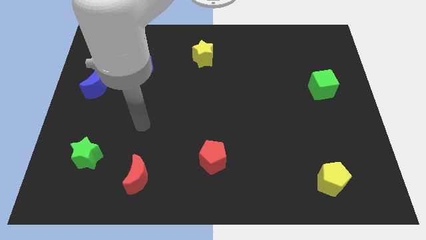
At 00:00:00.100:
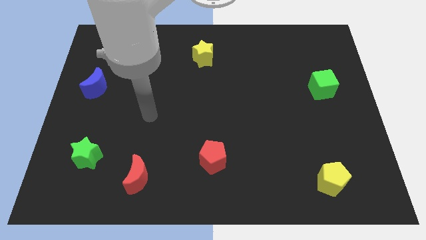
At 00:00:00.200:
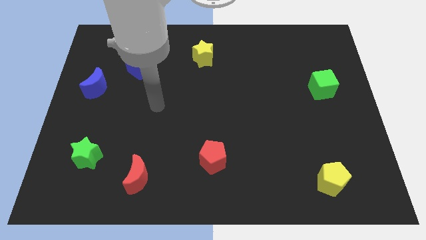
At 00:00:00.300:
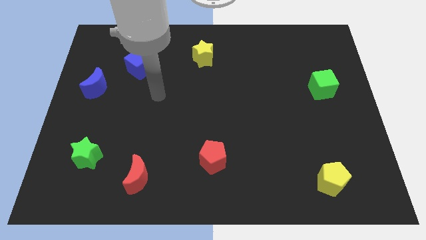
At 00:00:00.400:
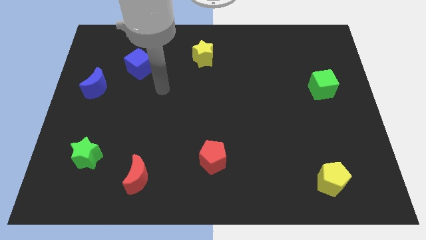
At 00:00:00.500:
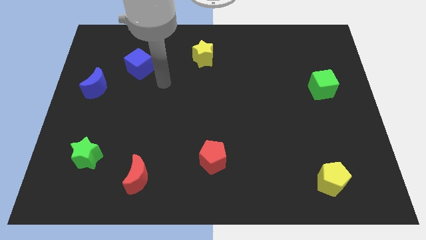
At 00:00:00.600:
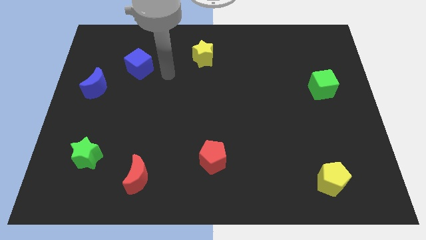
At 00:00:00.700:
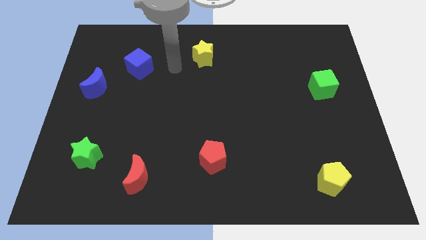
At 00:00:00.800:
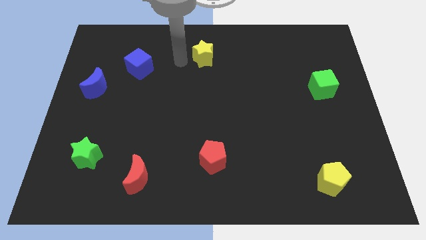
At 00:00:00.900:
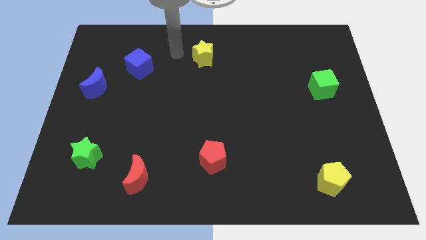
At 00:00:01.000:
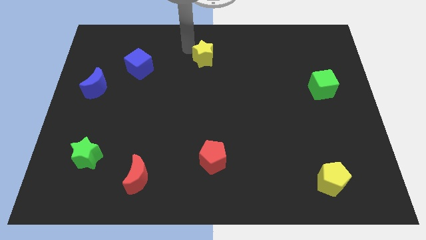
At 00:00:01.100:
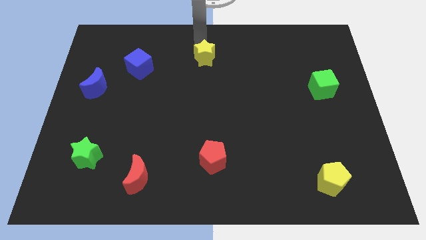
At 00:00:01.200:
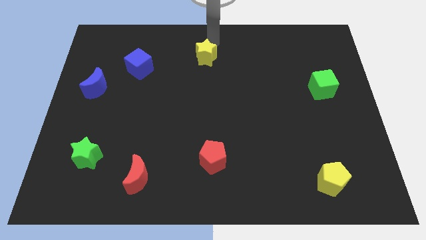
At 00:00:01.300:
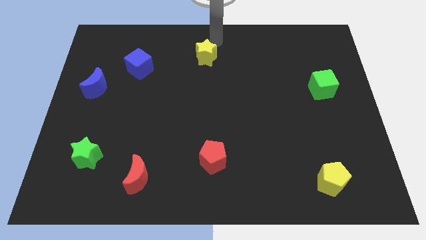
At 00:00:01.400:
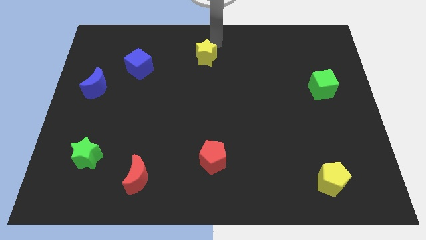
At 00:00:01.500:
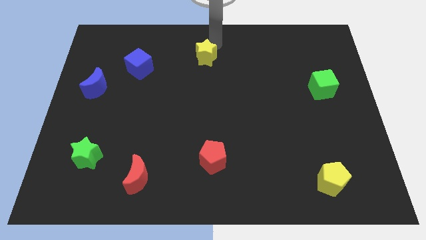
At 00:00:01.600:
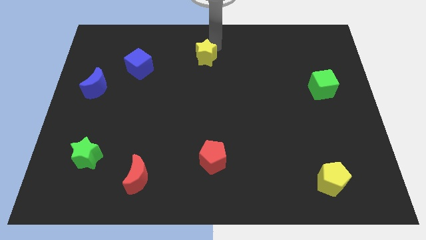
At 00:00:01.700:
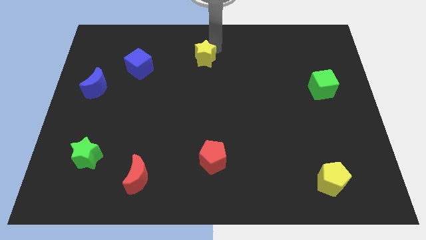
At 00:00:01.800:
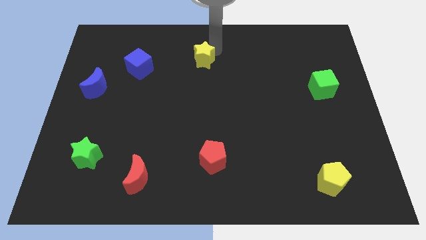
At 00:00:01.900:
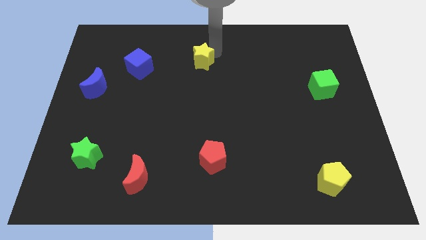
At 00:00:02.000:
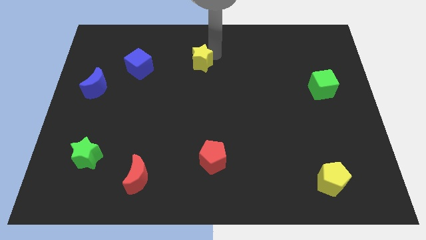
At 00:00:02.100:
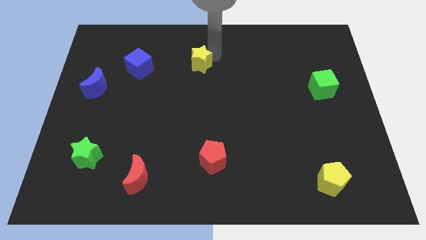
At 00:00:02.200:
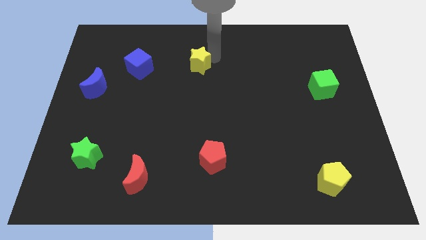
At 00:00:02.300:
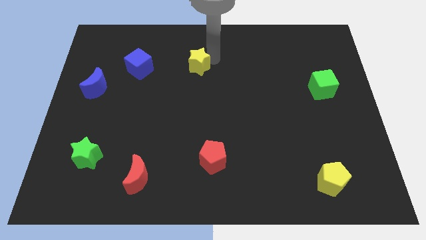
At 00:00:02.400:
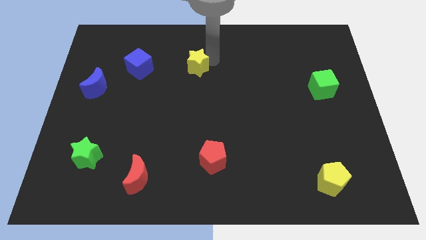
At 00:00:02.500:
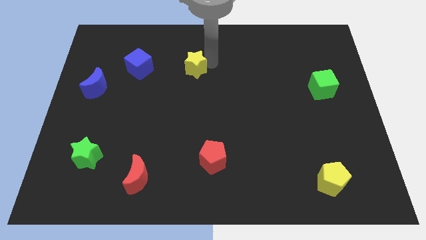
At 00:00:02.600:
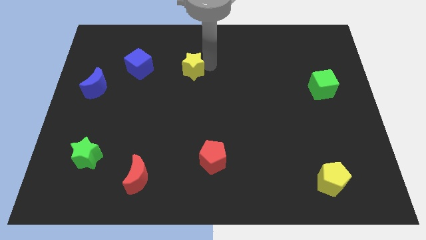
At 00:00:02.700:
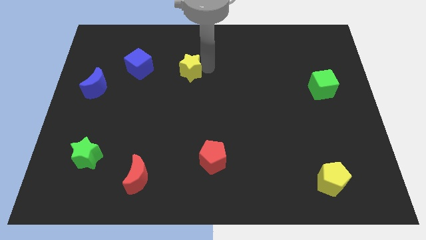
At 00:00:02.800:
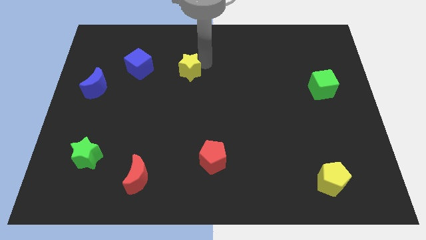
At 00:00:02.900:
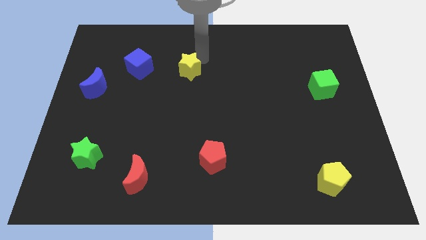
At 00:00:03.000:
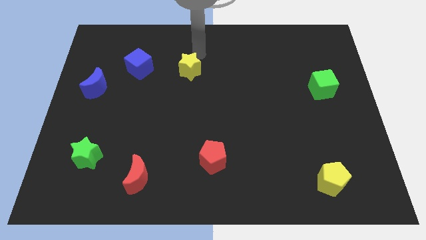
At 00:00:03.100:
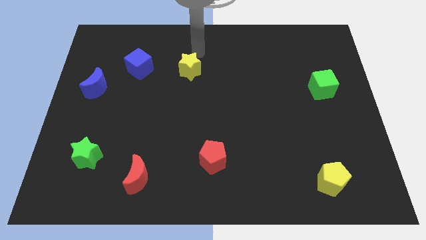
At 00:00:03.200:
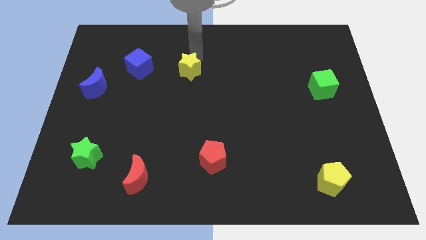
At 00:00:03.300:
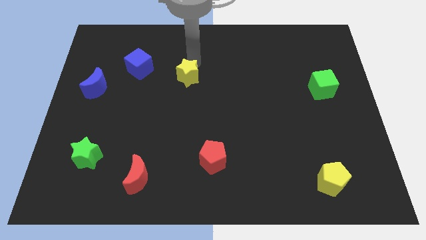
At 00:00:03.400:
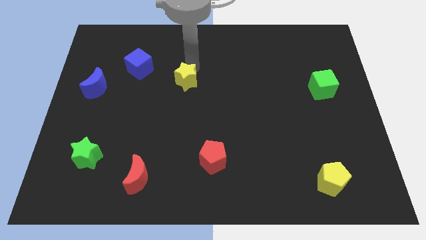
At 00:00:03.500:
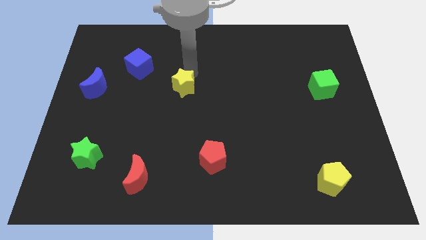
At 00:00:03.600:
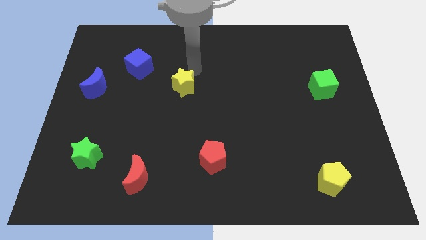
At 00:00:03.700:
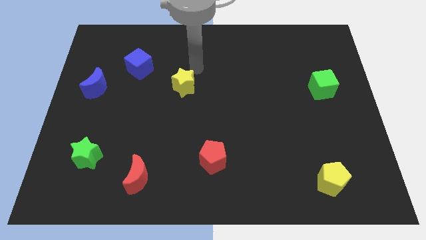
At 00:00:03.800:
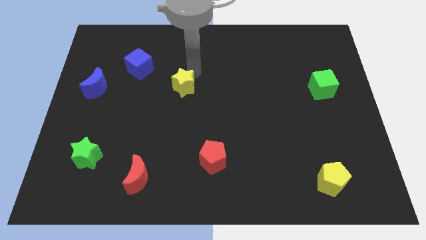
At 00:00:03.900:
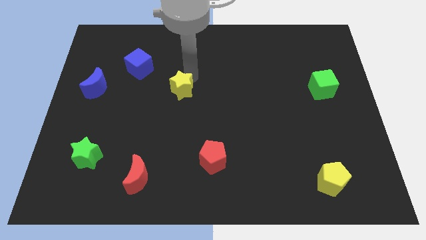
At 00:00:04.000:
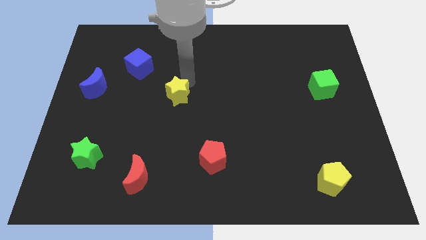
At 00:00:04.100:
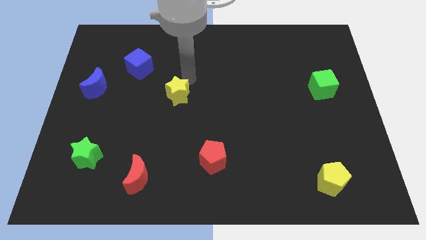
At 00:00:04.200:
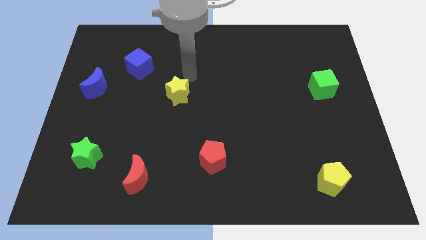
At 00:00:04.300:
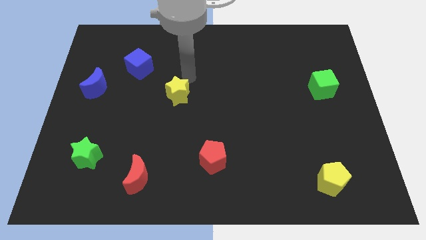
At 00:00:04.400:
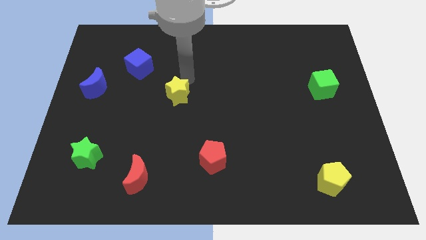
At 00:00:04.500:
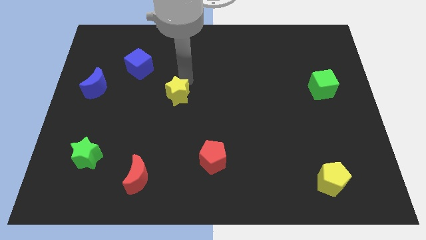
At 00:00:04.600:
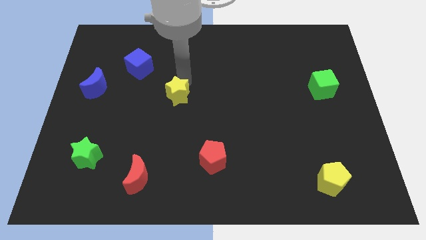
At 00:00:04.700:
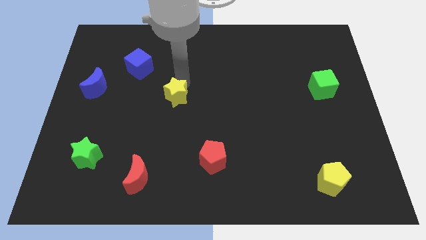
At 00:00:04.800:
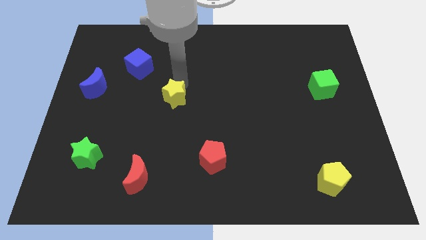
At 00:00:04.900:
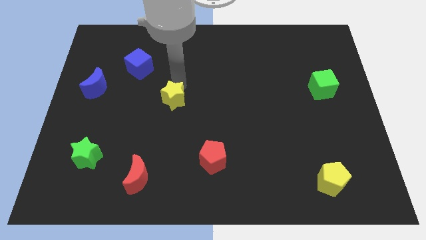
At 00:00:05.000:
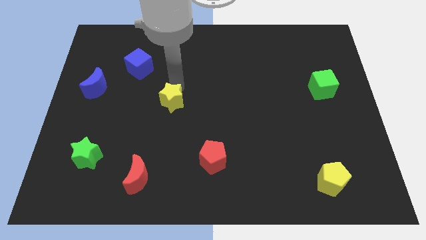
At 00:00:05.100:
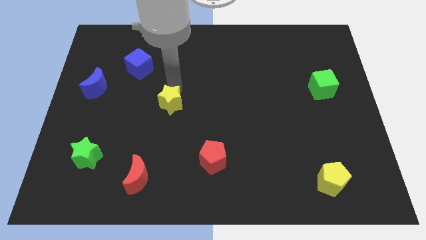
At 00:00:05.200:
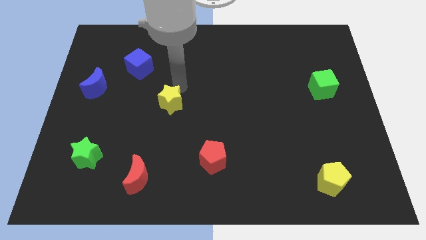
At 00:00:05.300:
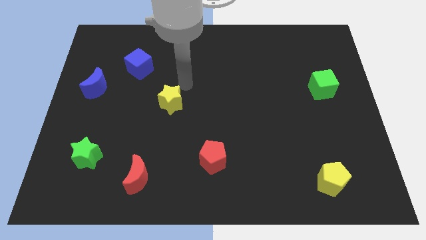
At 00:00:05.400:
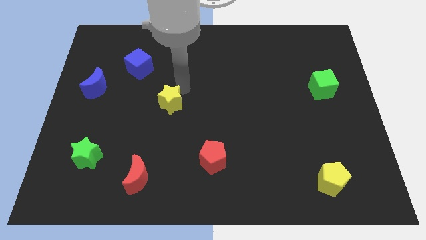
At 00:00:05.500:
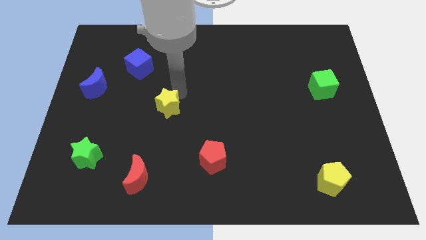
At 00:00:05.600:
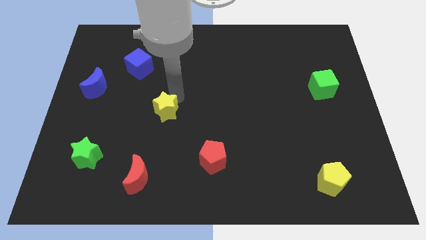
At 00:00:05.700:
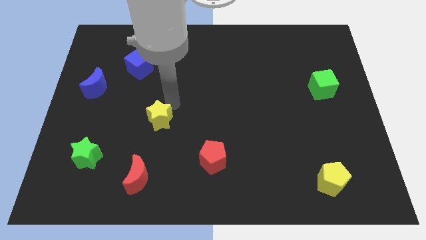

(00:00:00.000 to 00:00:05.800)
slide the yellow star to the top side of the red moon

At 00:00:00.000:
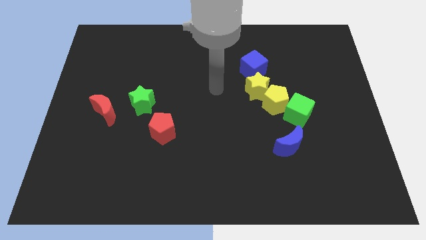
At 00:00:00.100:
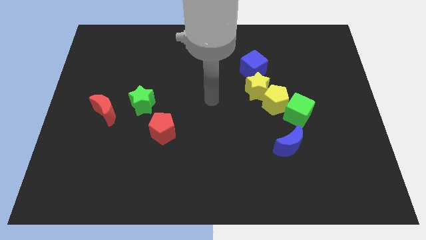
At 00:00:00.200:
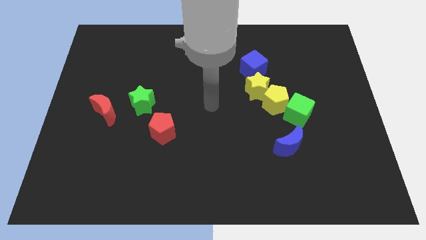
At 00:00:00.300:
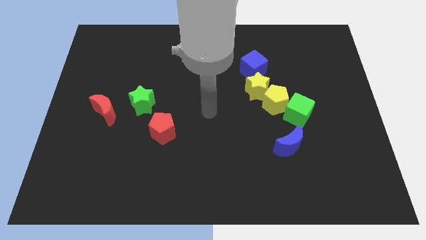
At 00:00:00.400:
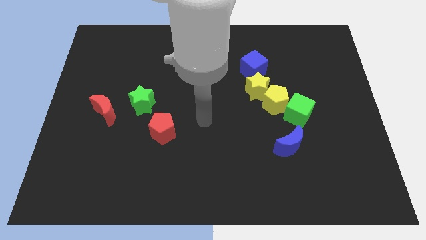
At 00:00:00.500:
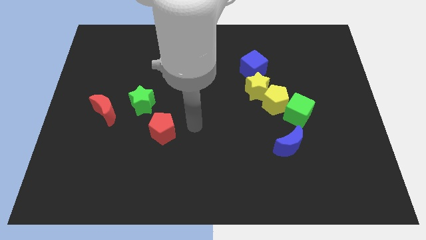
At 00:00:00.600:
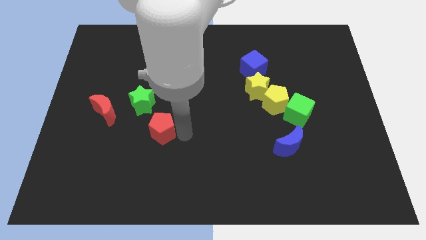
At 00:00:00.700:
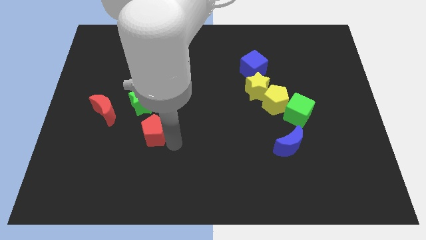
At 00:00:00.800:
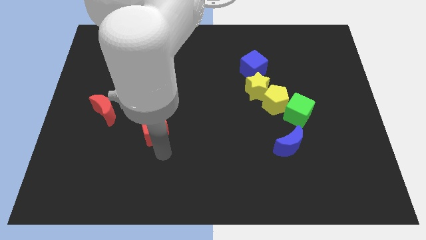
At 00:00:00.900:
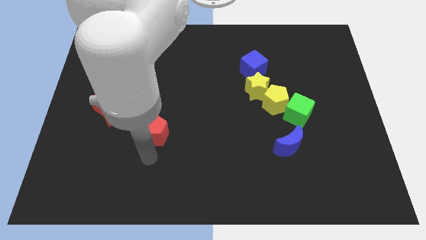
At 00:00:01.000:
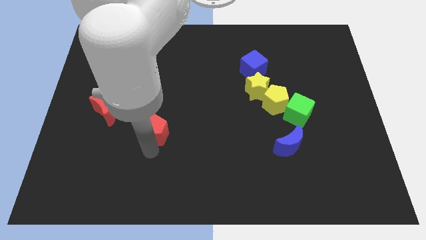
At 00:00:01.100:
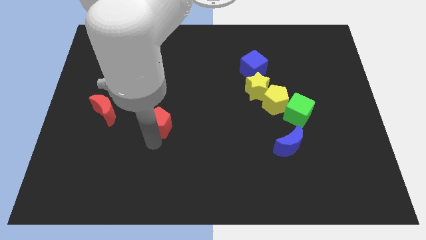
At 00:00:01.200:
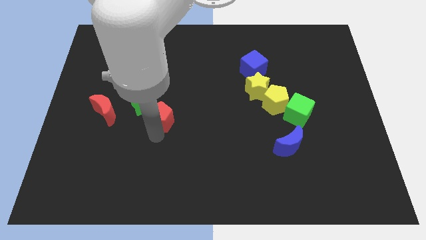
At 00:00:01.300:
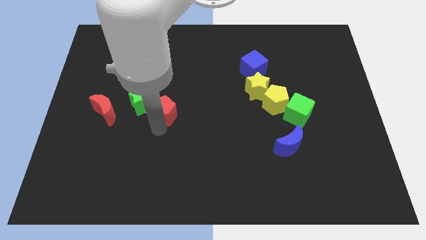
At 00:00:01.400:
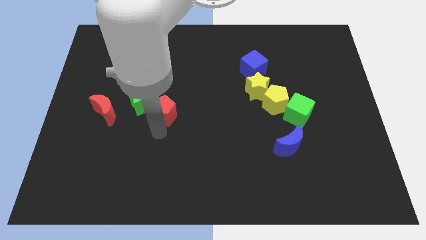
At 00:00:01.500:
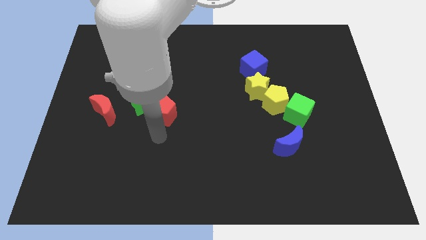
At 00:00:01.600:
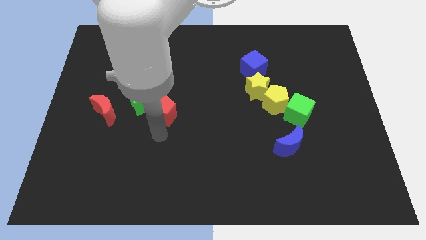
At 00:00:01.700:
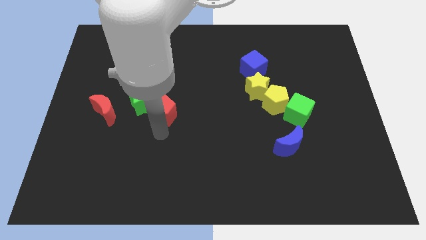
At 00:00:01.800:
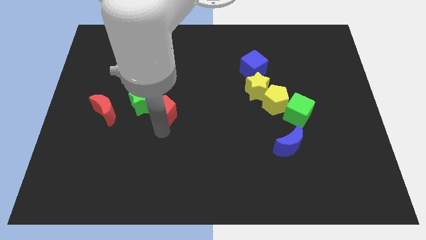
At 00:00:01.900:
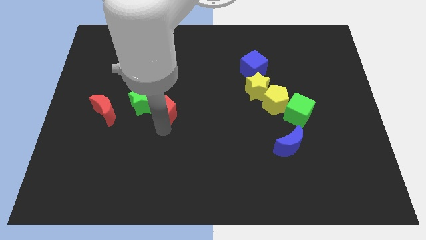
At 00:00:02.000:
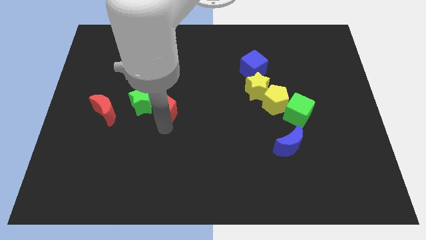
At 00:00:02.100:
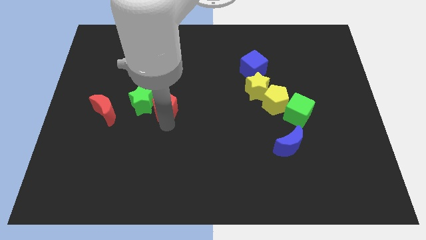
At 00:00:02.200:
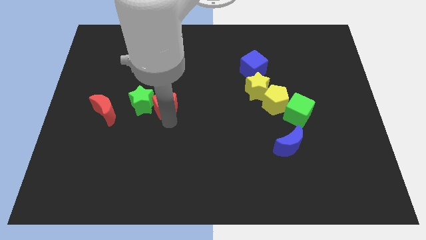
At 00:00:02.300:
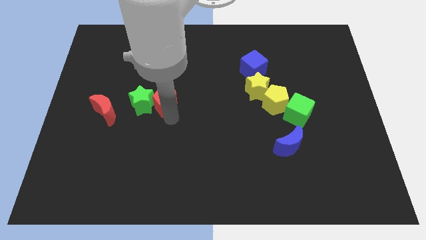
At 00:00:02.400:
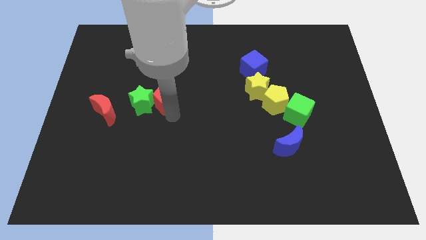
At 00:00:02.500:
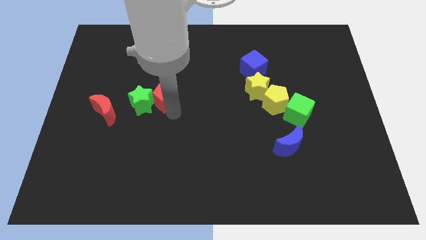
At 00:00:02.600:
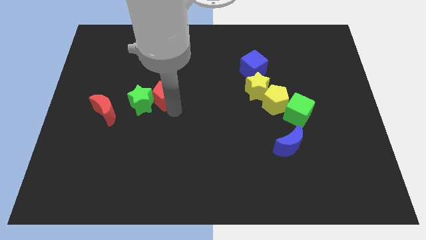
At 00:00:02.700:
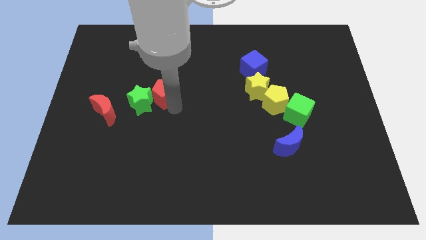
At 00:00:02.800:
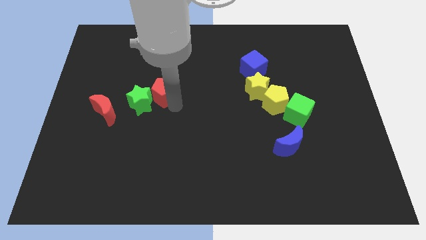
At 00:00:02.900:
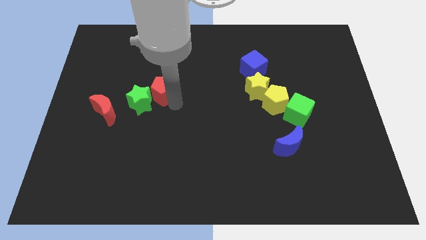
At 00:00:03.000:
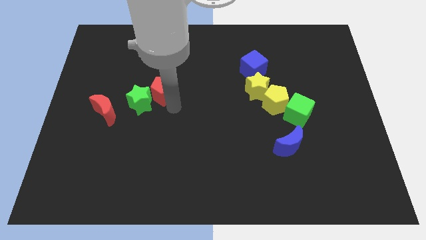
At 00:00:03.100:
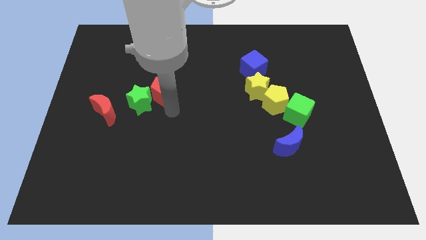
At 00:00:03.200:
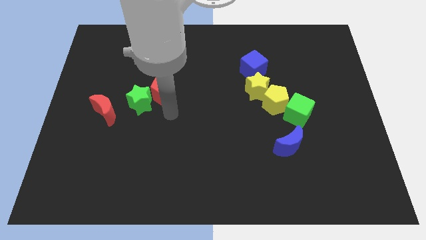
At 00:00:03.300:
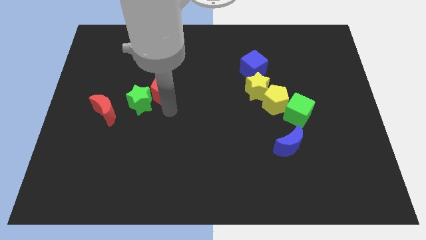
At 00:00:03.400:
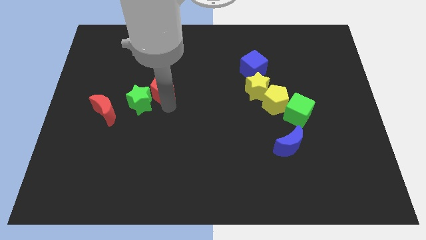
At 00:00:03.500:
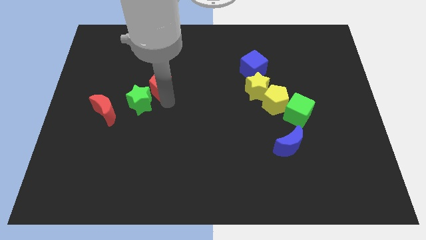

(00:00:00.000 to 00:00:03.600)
slide the red pentagon above the green star
